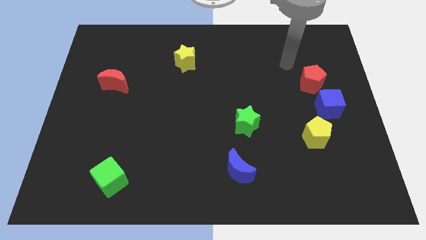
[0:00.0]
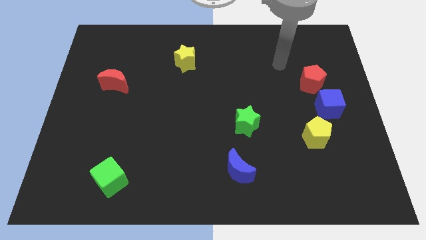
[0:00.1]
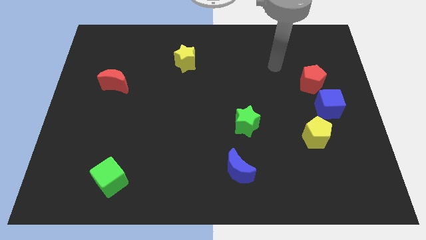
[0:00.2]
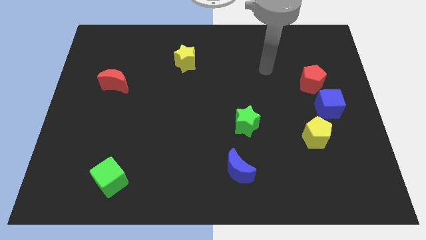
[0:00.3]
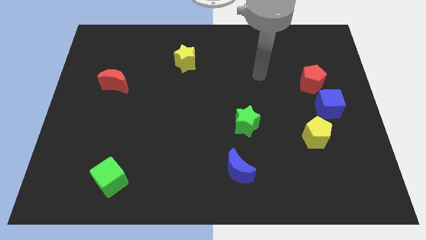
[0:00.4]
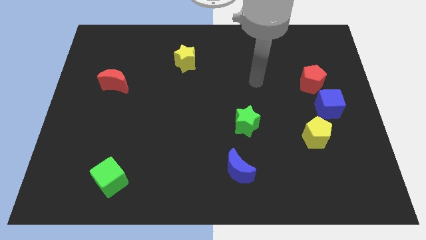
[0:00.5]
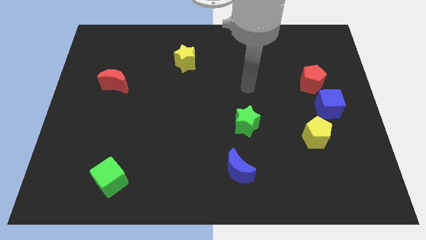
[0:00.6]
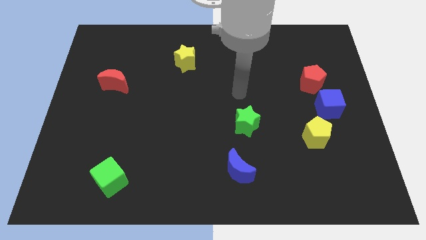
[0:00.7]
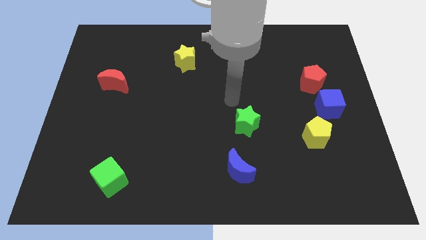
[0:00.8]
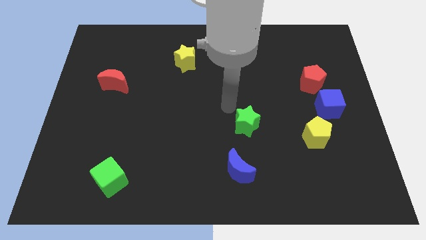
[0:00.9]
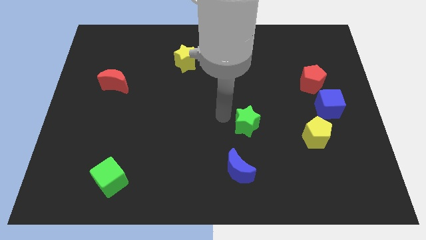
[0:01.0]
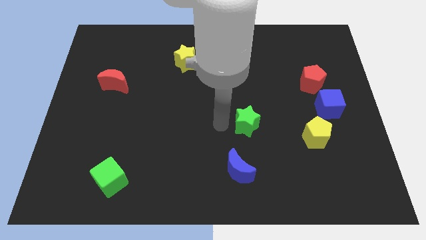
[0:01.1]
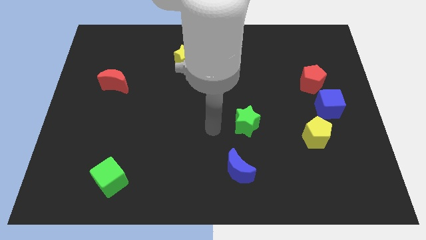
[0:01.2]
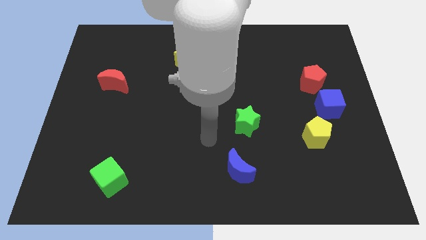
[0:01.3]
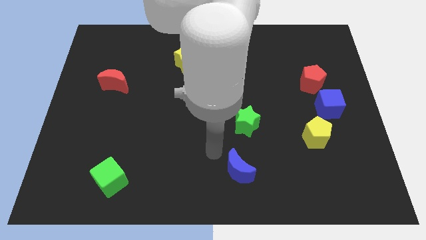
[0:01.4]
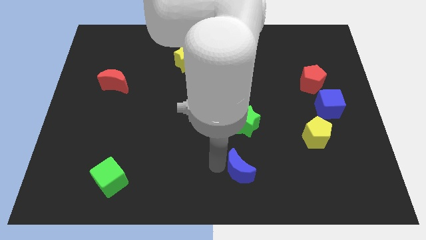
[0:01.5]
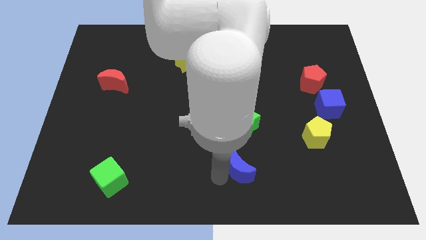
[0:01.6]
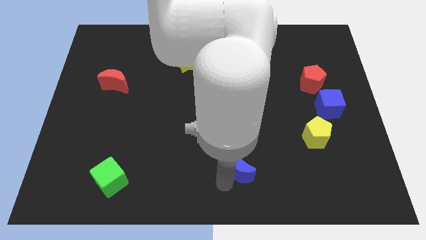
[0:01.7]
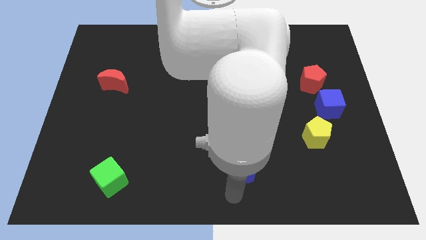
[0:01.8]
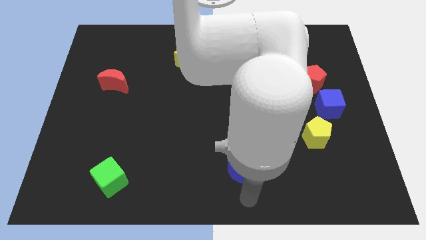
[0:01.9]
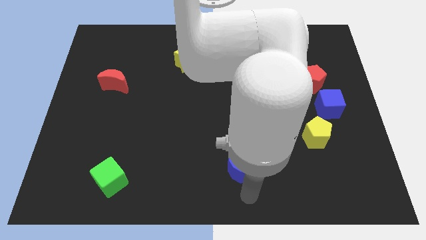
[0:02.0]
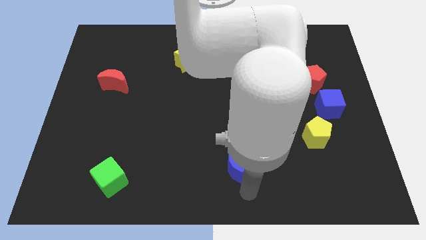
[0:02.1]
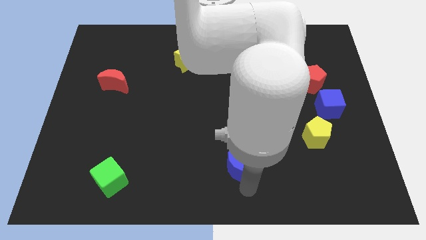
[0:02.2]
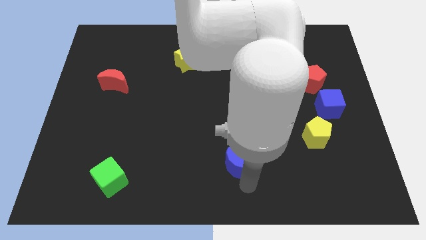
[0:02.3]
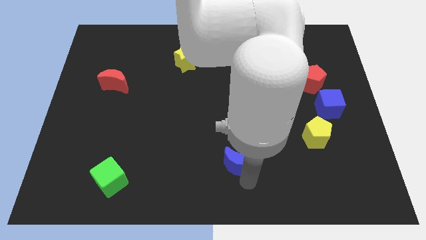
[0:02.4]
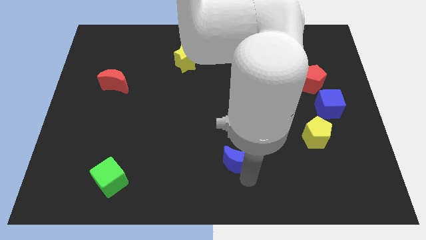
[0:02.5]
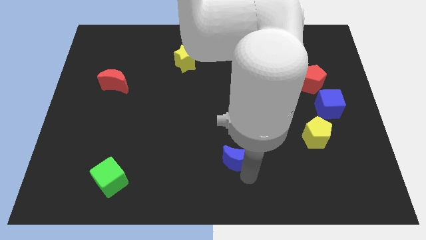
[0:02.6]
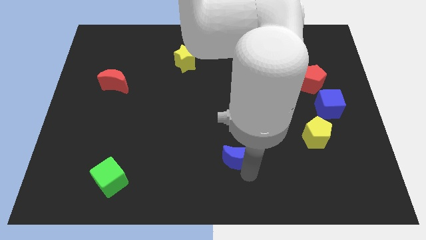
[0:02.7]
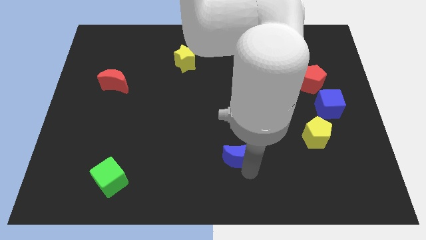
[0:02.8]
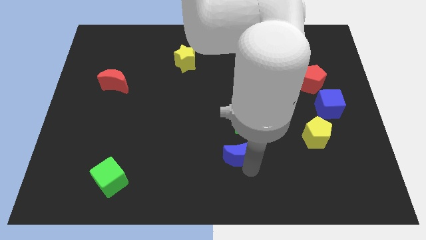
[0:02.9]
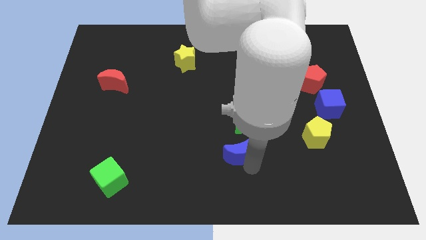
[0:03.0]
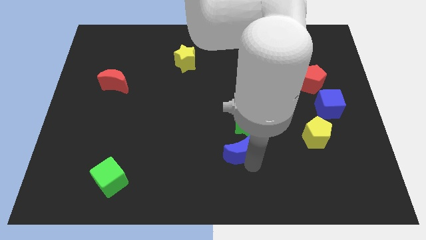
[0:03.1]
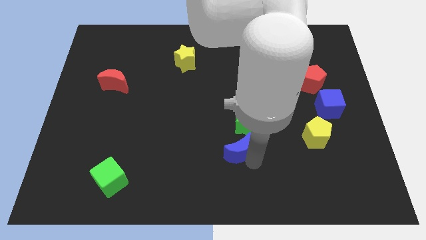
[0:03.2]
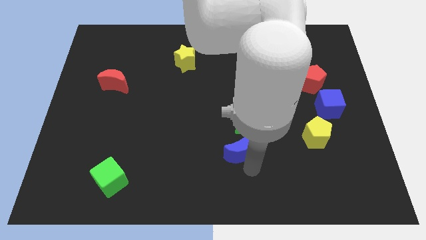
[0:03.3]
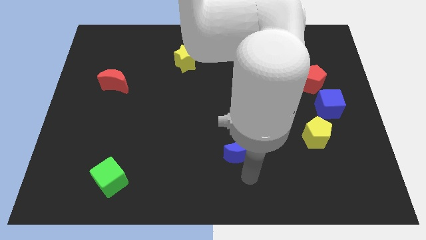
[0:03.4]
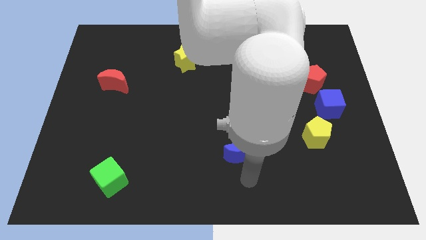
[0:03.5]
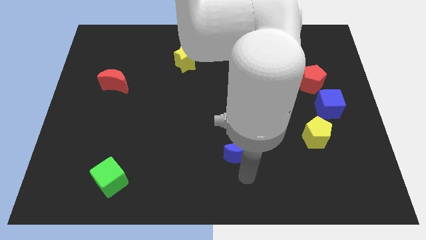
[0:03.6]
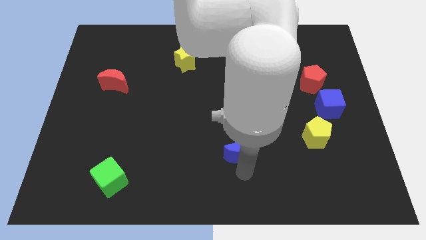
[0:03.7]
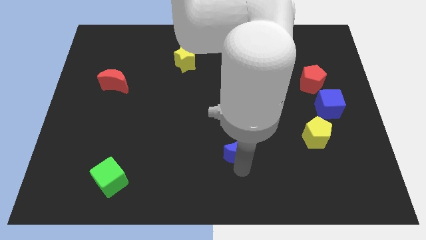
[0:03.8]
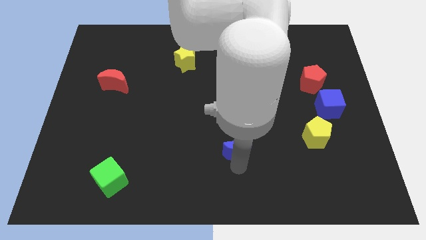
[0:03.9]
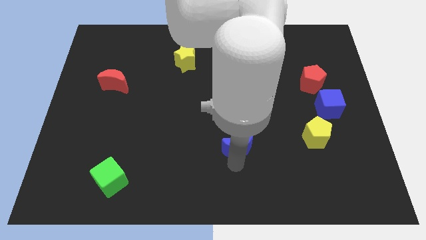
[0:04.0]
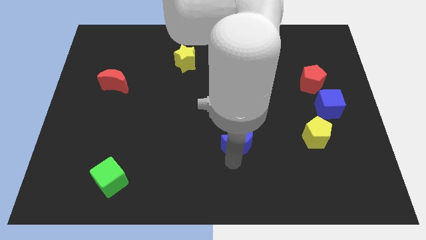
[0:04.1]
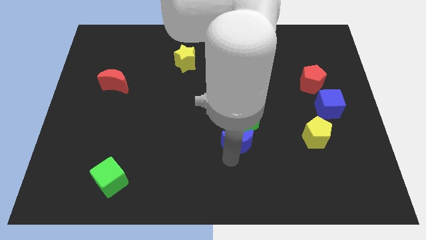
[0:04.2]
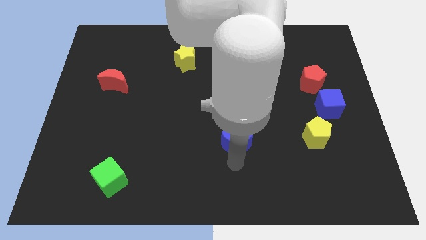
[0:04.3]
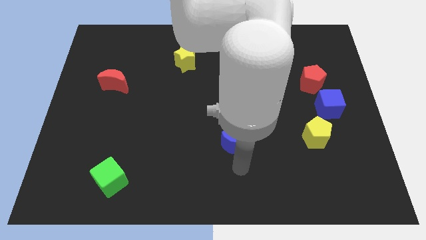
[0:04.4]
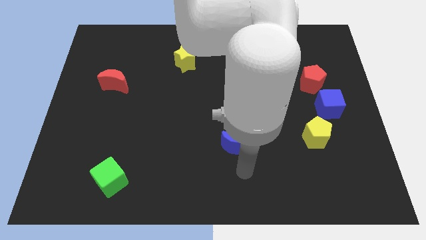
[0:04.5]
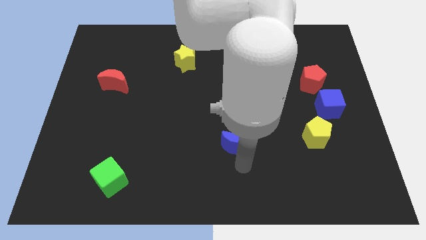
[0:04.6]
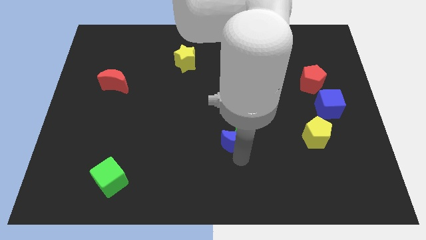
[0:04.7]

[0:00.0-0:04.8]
slightly move the blue moon upwards

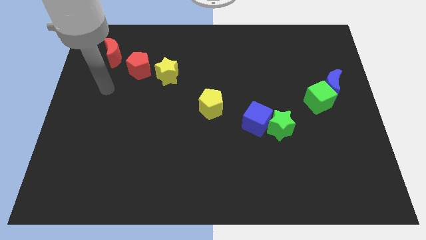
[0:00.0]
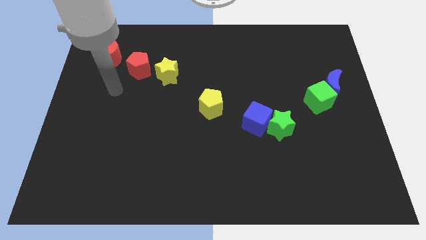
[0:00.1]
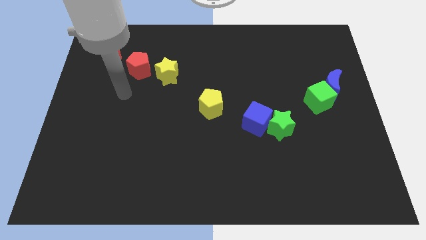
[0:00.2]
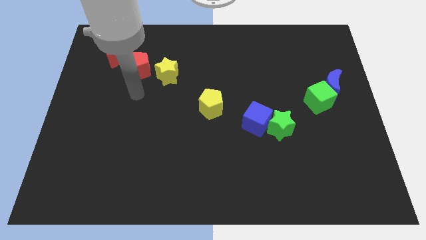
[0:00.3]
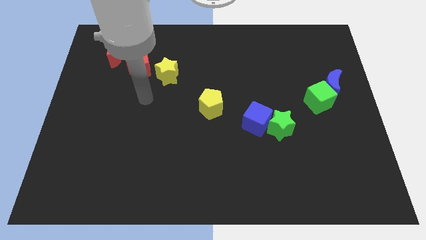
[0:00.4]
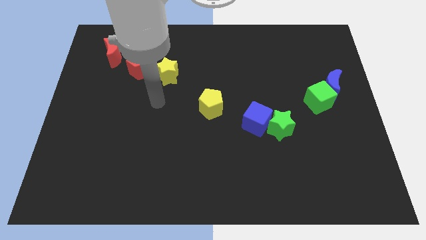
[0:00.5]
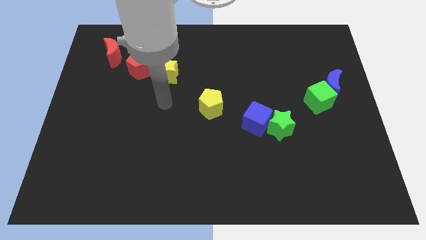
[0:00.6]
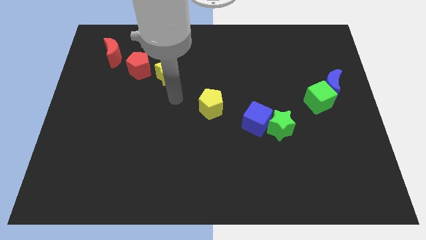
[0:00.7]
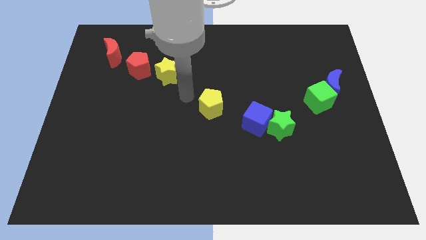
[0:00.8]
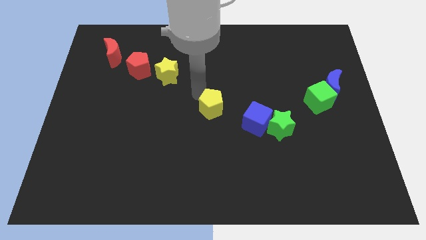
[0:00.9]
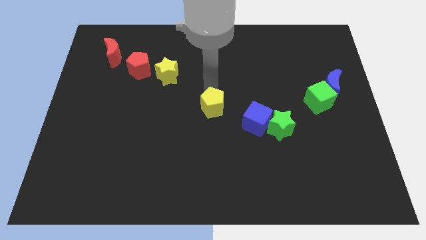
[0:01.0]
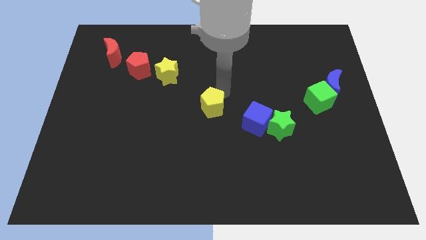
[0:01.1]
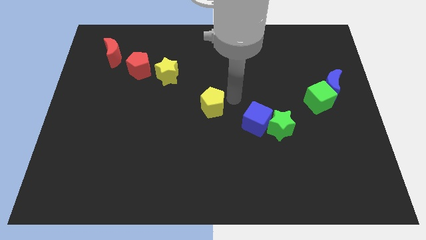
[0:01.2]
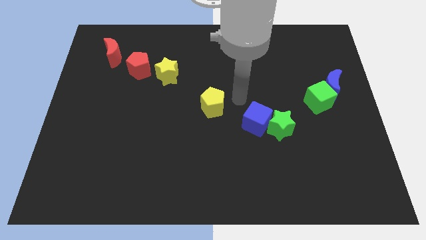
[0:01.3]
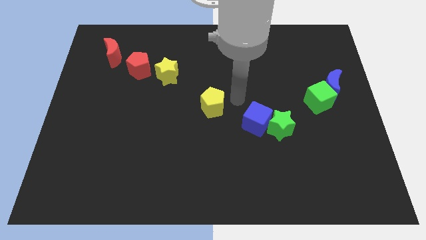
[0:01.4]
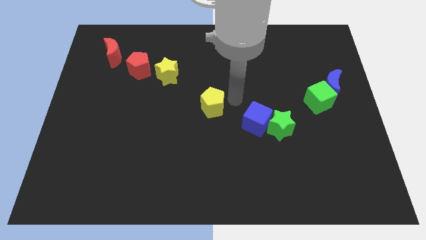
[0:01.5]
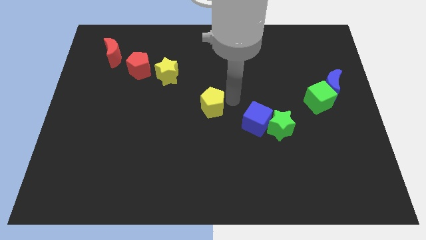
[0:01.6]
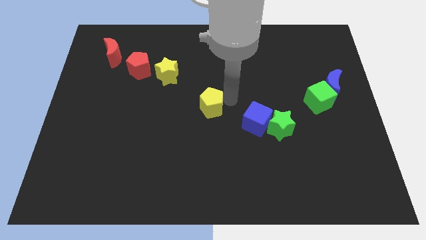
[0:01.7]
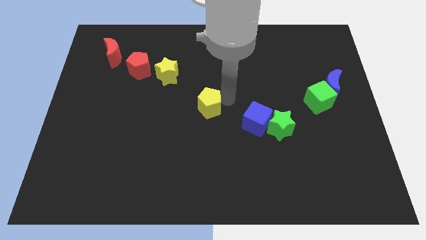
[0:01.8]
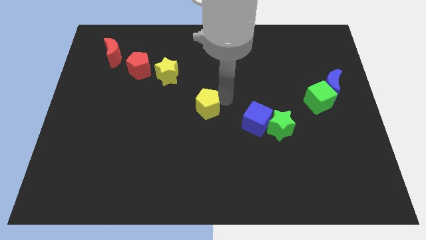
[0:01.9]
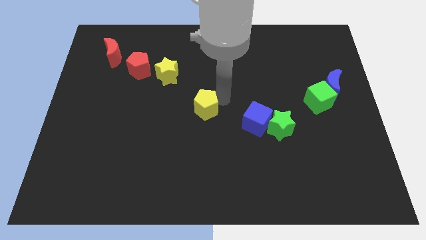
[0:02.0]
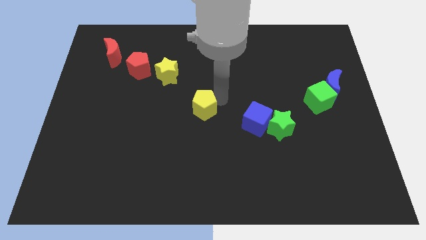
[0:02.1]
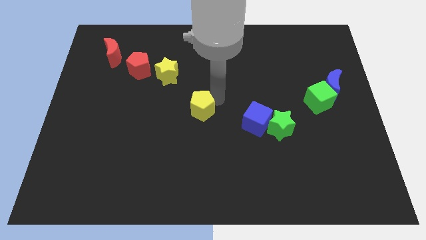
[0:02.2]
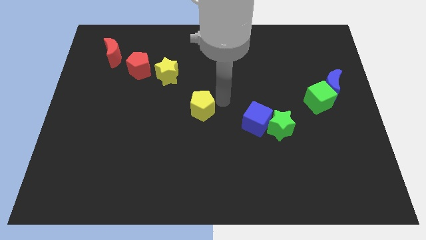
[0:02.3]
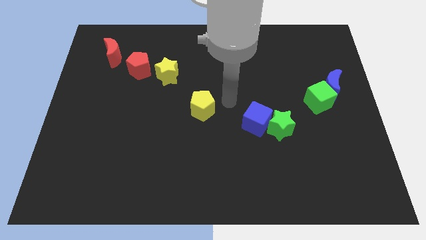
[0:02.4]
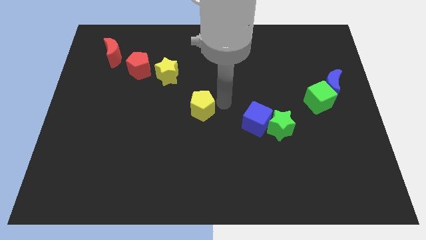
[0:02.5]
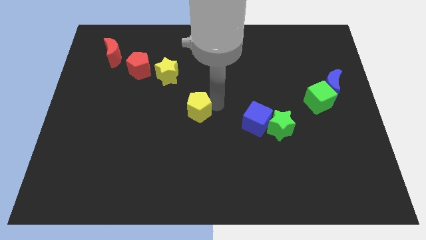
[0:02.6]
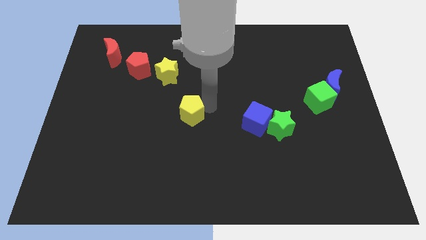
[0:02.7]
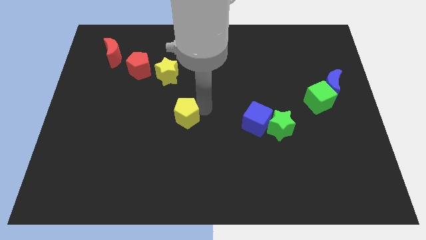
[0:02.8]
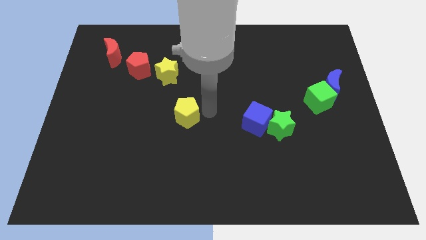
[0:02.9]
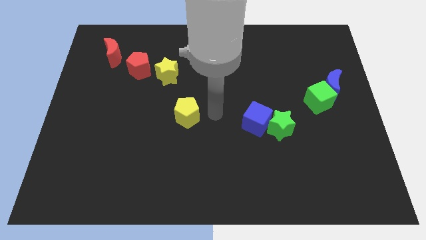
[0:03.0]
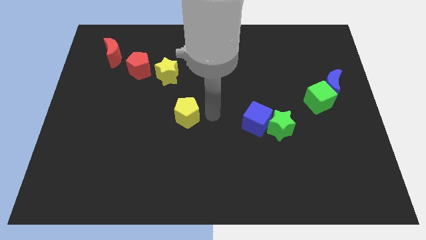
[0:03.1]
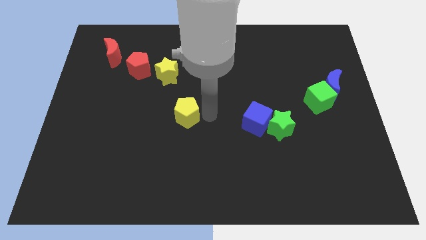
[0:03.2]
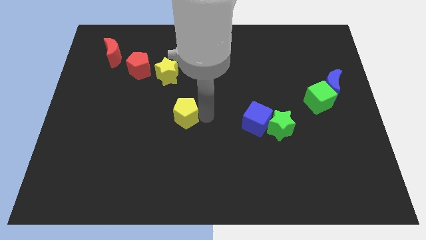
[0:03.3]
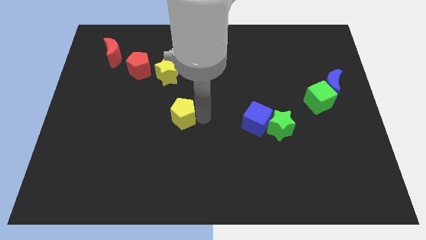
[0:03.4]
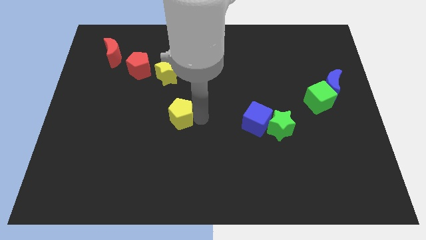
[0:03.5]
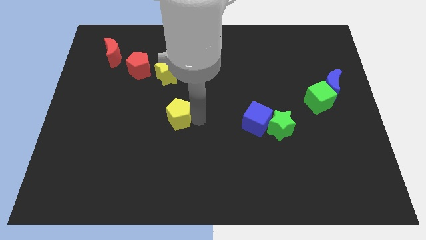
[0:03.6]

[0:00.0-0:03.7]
slightly move the yellow pentagon left
